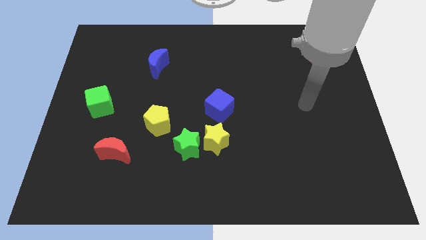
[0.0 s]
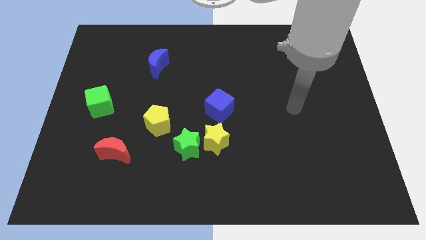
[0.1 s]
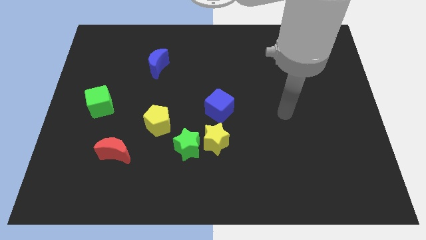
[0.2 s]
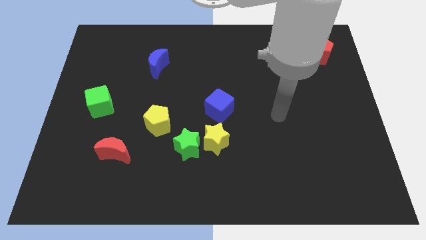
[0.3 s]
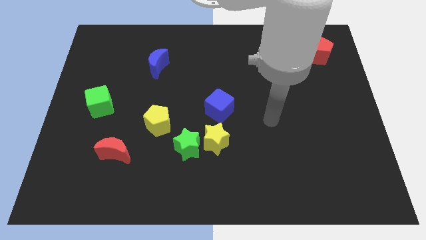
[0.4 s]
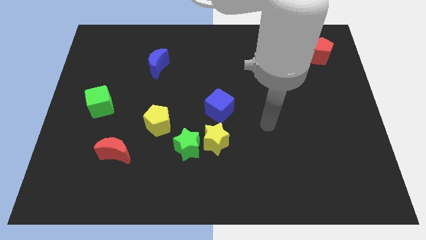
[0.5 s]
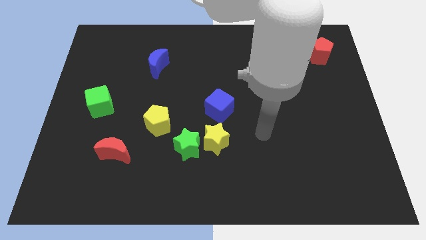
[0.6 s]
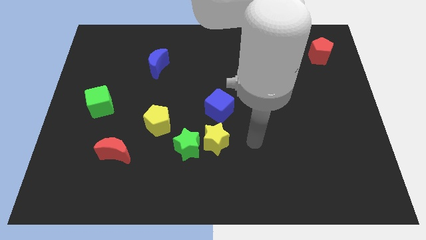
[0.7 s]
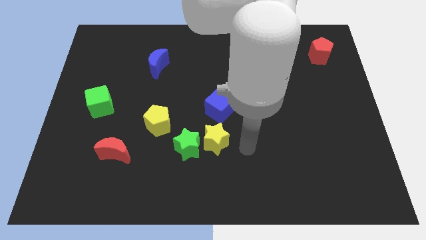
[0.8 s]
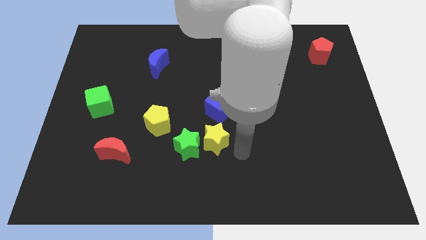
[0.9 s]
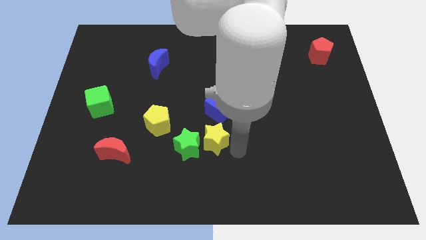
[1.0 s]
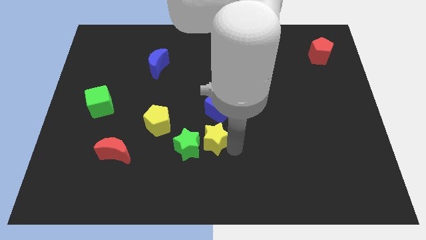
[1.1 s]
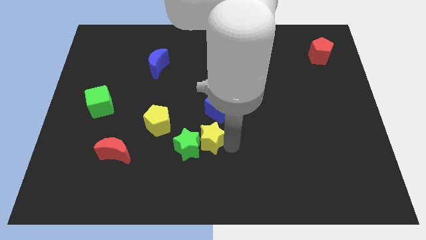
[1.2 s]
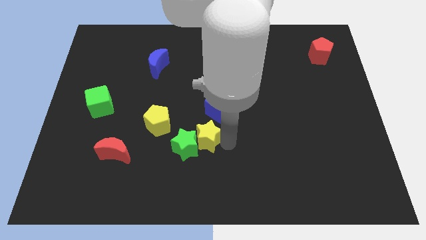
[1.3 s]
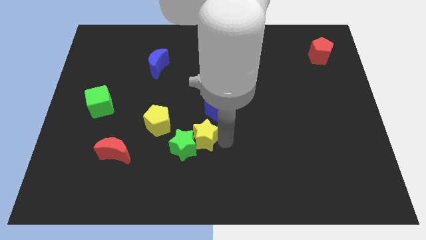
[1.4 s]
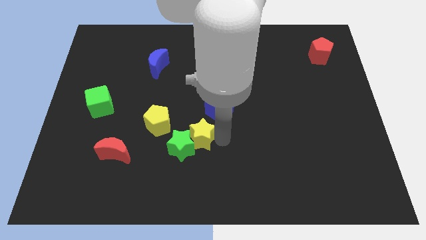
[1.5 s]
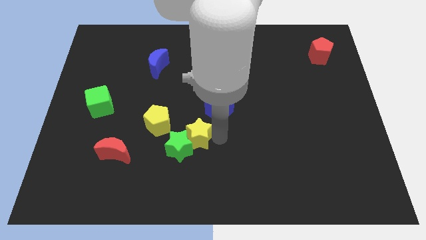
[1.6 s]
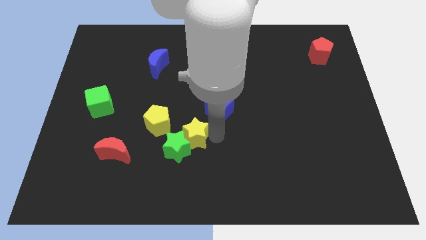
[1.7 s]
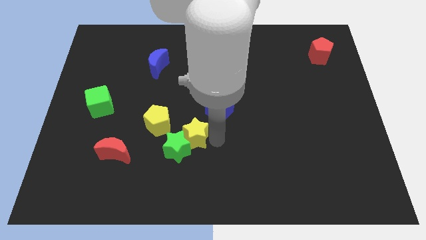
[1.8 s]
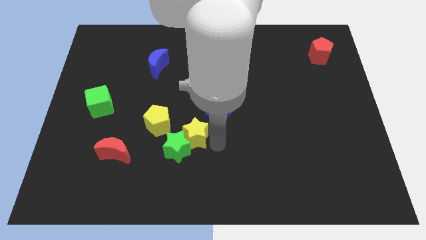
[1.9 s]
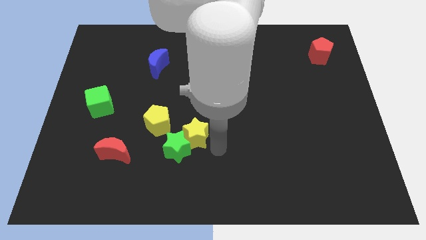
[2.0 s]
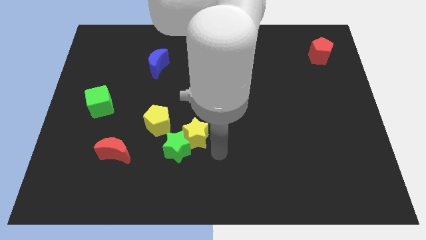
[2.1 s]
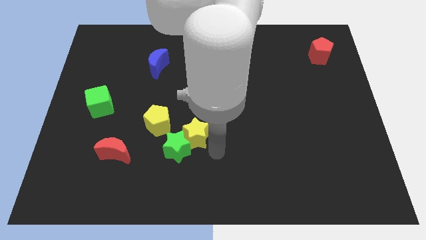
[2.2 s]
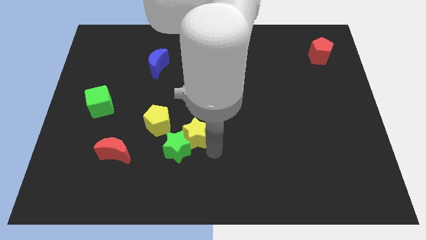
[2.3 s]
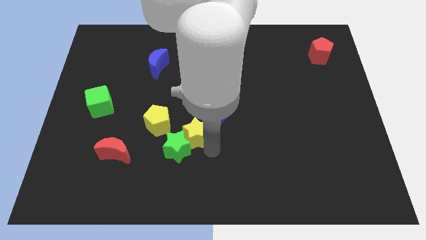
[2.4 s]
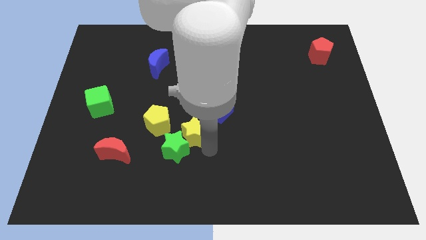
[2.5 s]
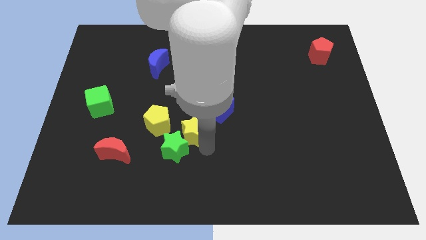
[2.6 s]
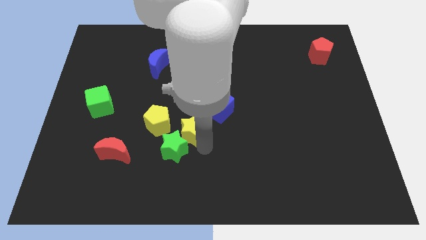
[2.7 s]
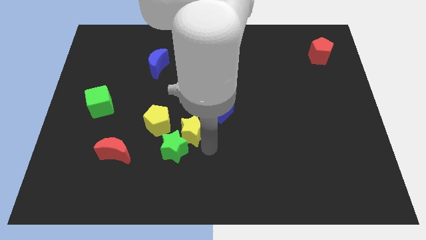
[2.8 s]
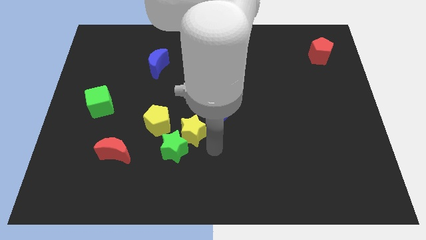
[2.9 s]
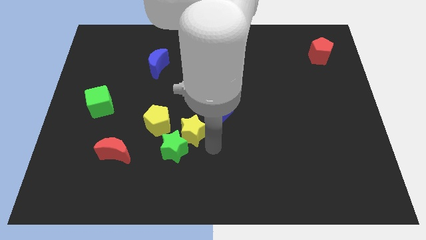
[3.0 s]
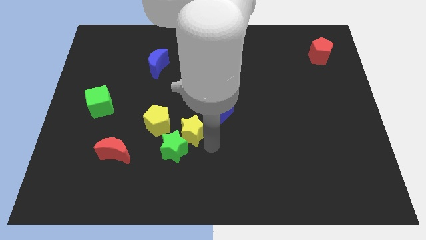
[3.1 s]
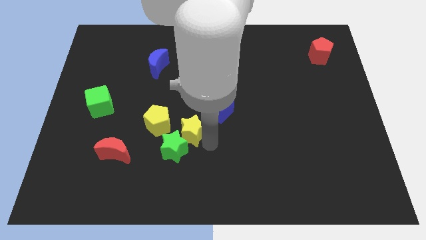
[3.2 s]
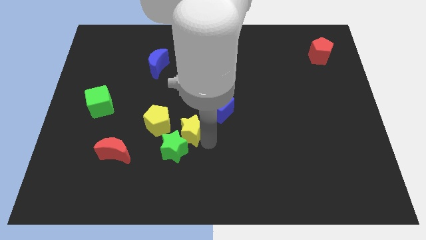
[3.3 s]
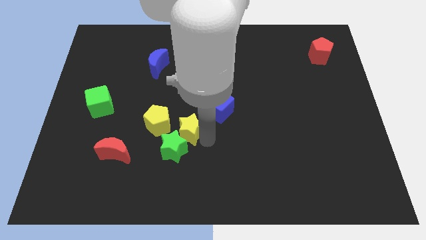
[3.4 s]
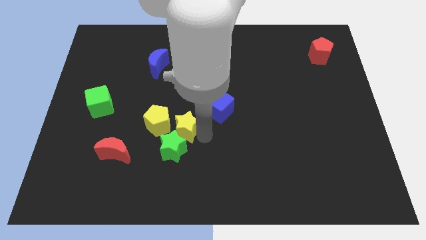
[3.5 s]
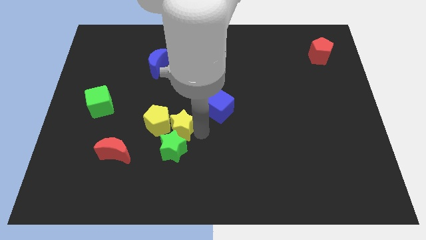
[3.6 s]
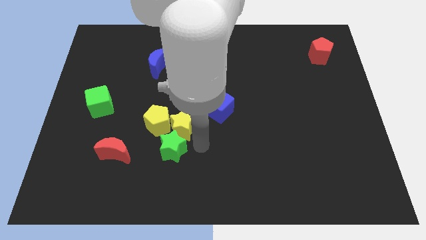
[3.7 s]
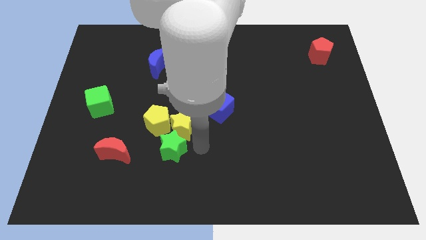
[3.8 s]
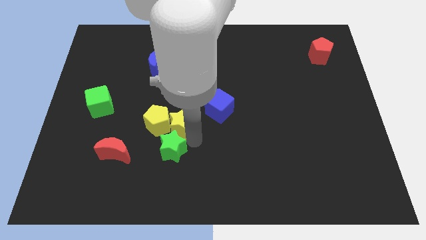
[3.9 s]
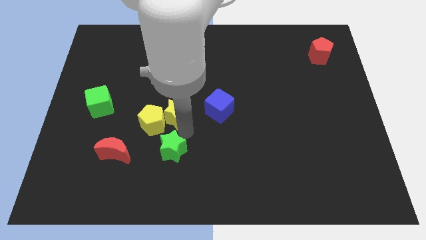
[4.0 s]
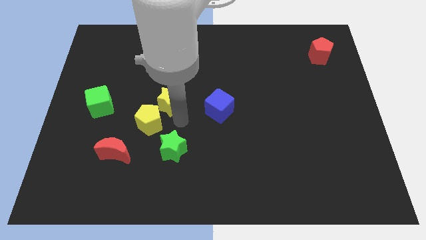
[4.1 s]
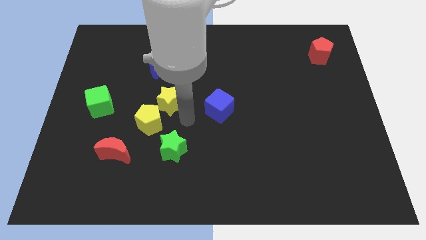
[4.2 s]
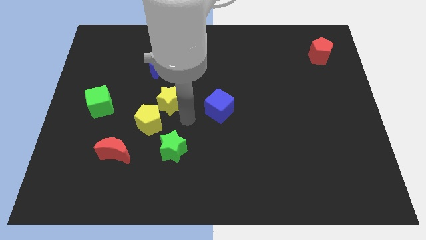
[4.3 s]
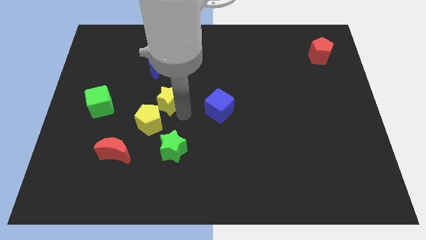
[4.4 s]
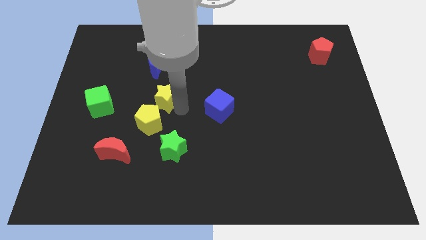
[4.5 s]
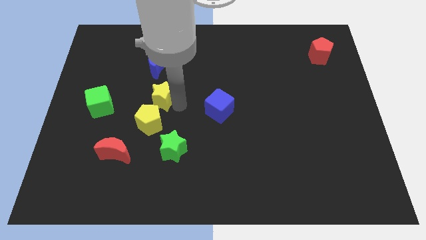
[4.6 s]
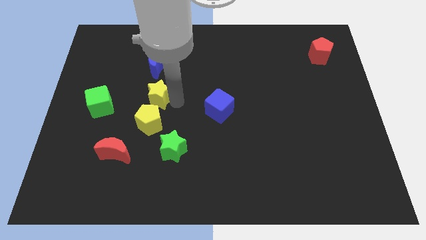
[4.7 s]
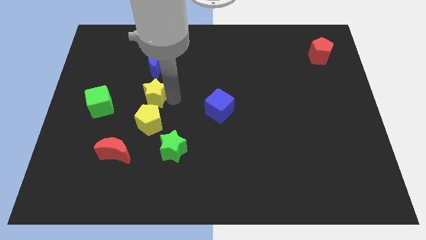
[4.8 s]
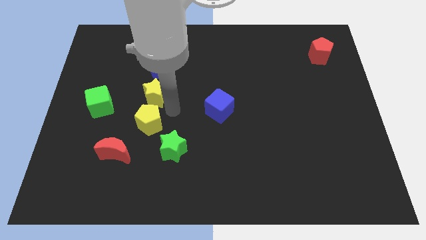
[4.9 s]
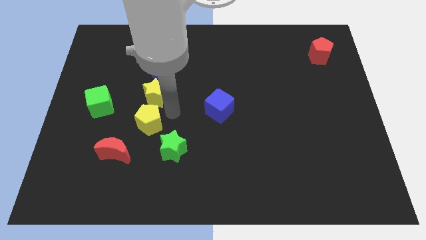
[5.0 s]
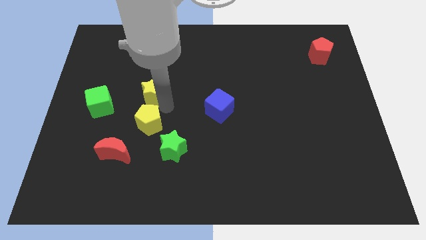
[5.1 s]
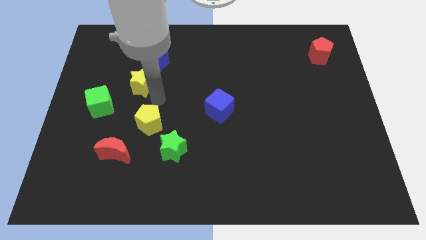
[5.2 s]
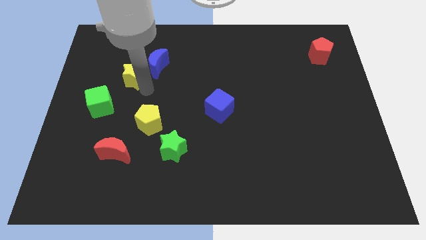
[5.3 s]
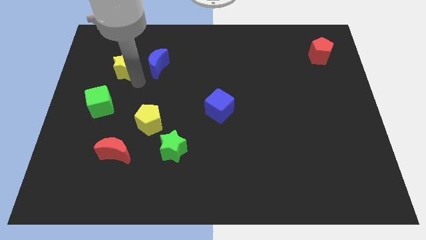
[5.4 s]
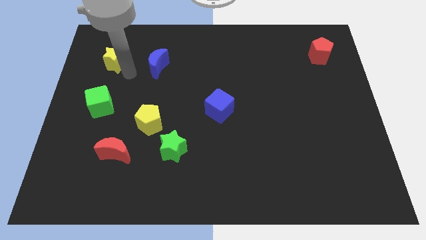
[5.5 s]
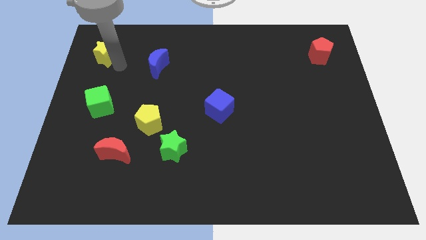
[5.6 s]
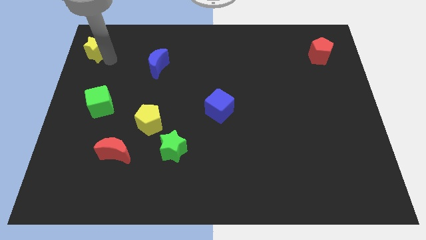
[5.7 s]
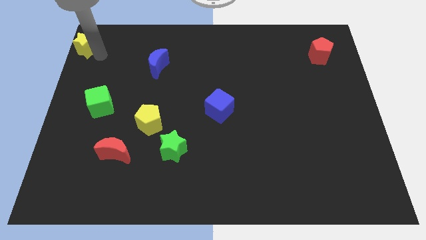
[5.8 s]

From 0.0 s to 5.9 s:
put the yellow star to the top left corner
